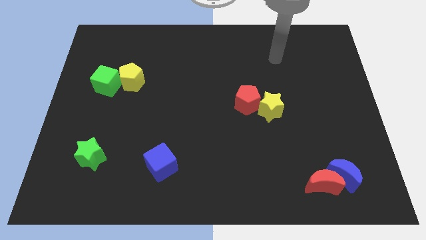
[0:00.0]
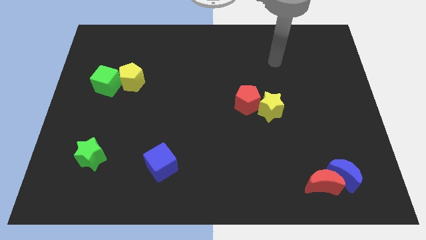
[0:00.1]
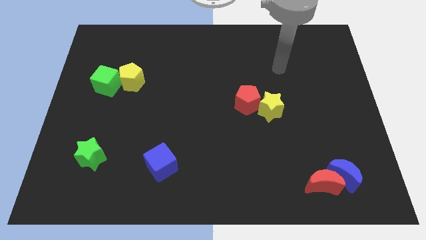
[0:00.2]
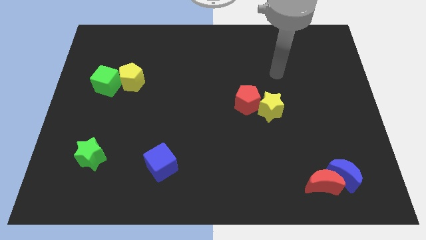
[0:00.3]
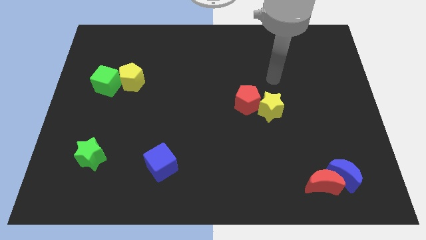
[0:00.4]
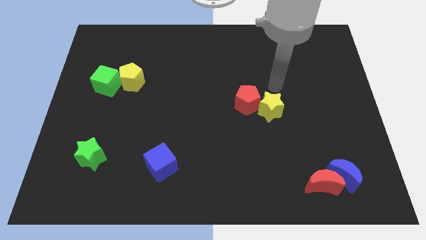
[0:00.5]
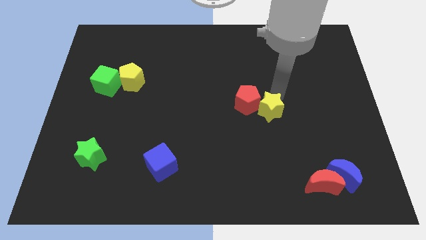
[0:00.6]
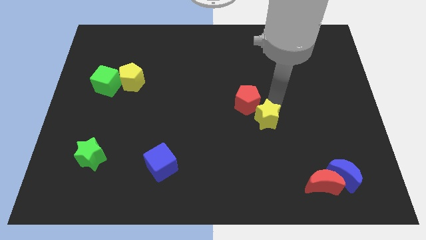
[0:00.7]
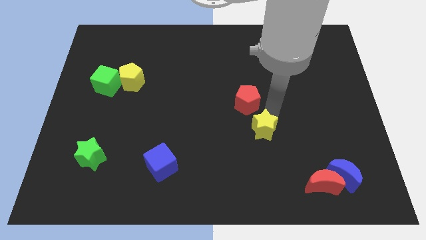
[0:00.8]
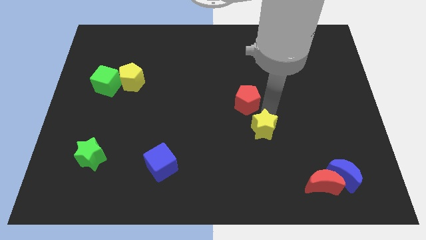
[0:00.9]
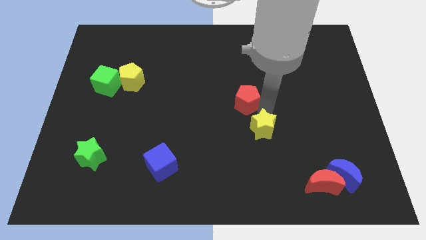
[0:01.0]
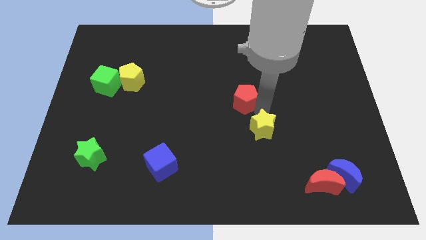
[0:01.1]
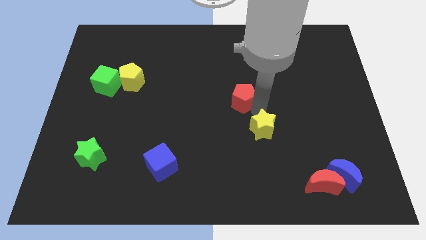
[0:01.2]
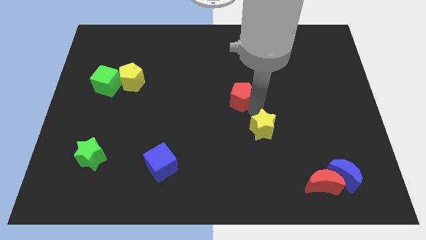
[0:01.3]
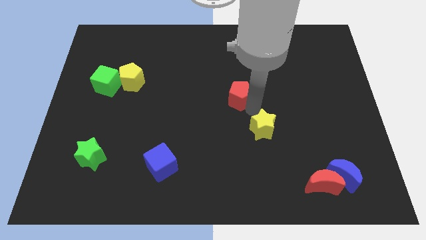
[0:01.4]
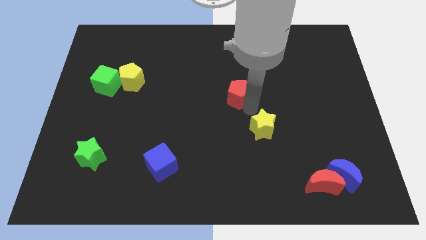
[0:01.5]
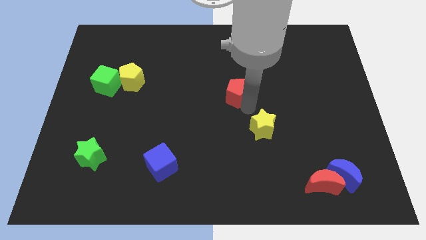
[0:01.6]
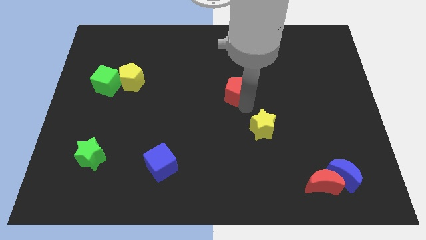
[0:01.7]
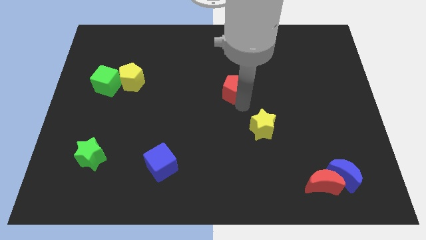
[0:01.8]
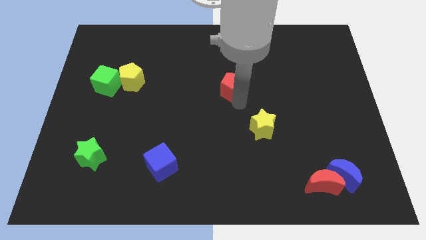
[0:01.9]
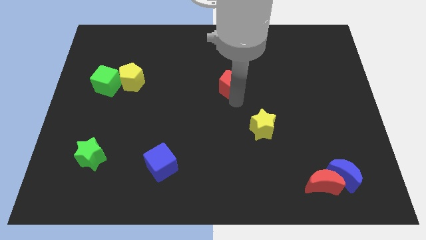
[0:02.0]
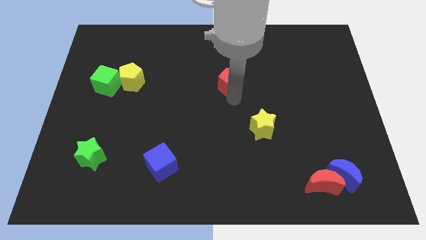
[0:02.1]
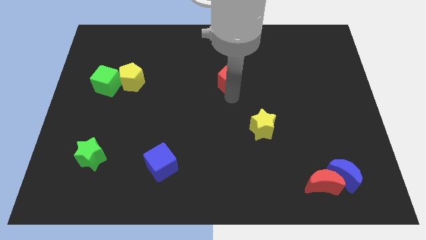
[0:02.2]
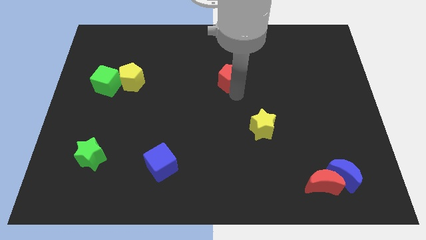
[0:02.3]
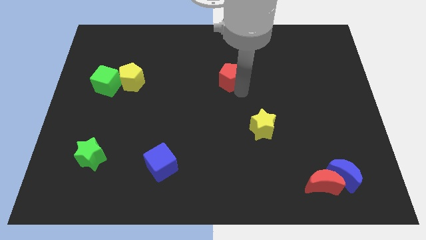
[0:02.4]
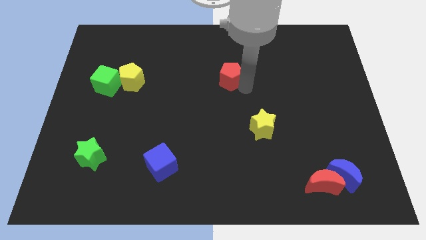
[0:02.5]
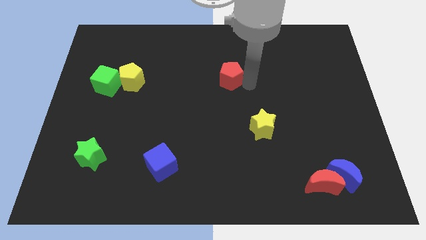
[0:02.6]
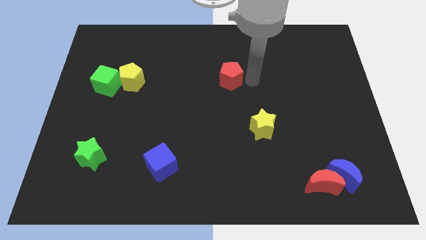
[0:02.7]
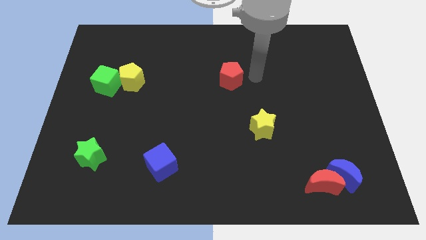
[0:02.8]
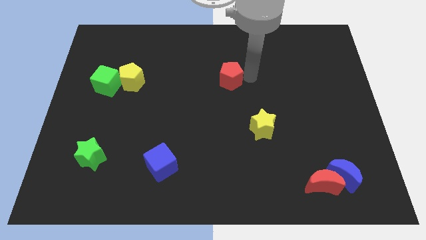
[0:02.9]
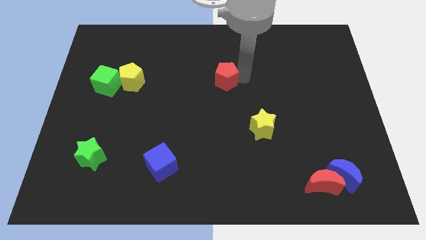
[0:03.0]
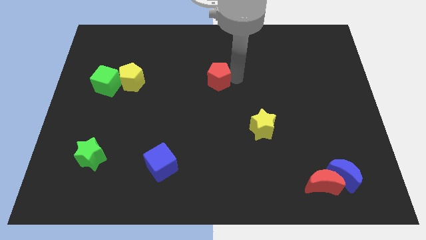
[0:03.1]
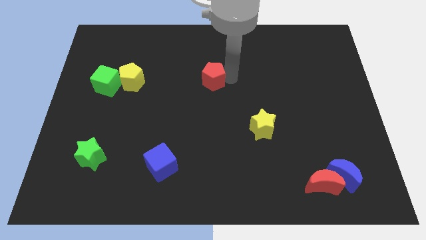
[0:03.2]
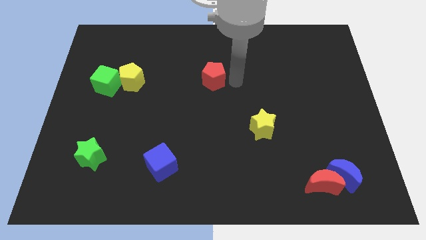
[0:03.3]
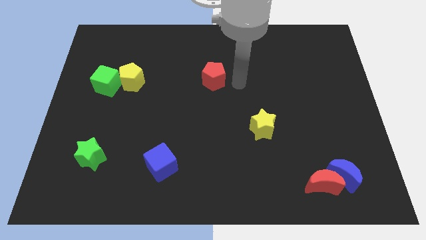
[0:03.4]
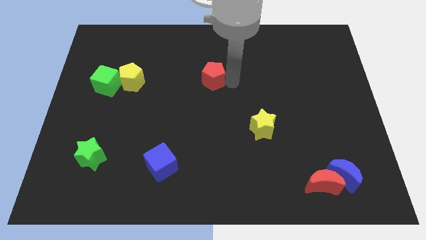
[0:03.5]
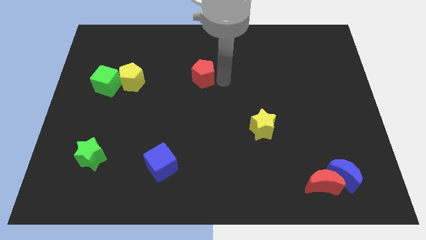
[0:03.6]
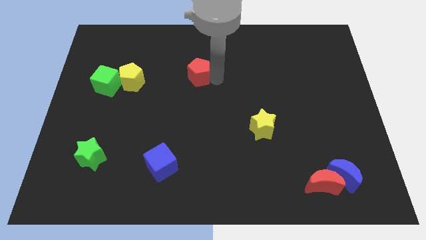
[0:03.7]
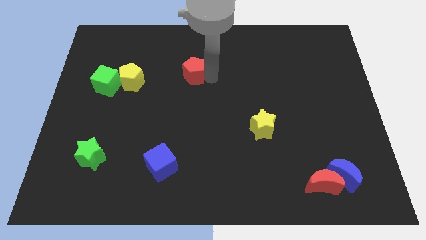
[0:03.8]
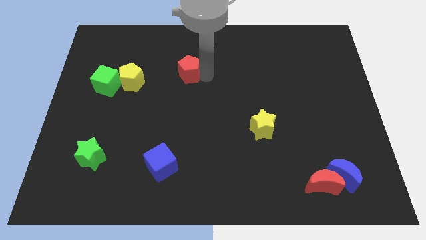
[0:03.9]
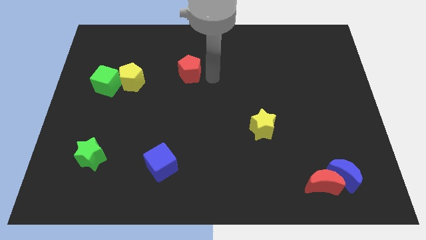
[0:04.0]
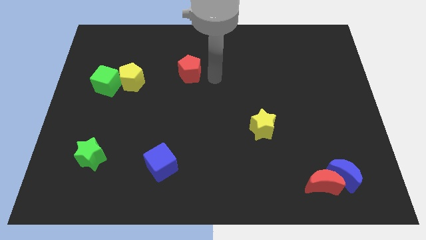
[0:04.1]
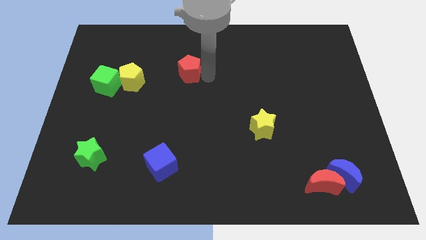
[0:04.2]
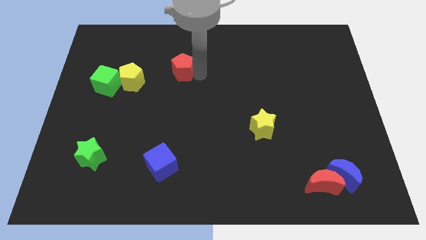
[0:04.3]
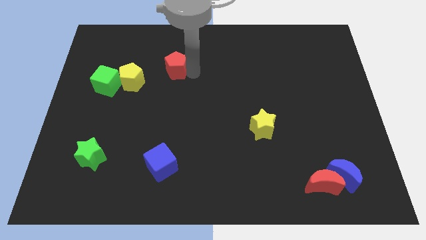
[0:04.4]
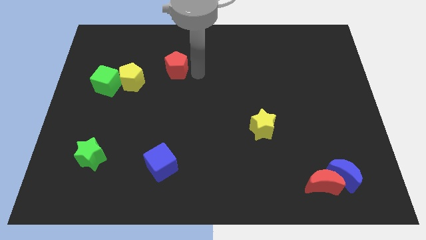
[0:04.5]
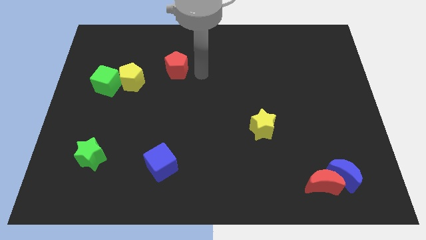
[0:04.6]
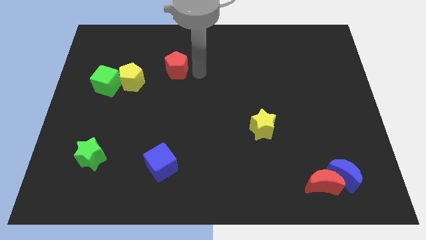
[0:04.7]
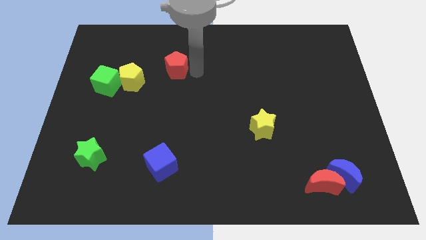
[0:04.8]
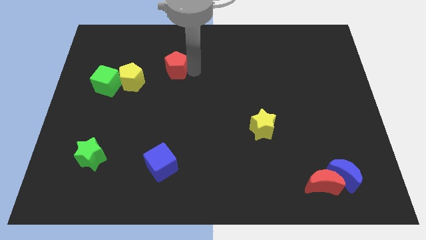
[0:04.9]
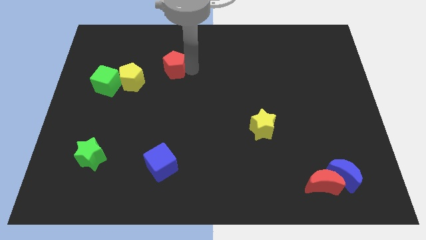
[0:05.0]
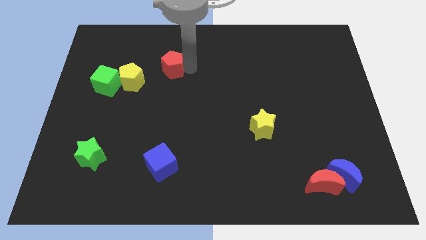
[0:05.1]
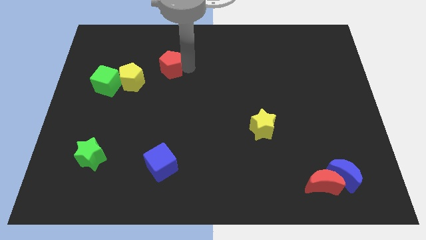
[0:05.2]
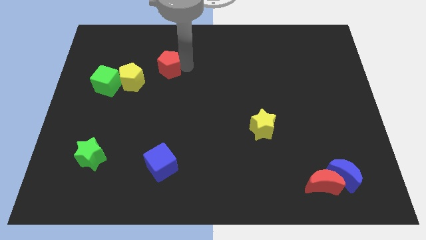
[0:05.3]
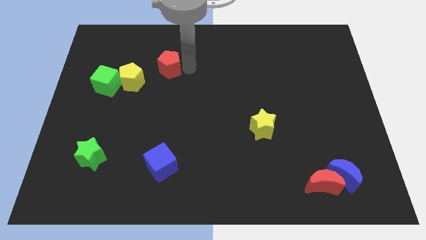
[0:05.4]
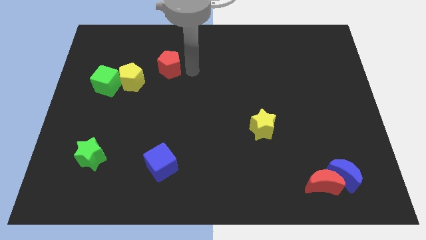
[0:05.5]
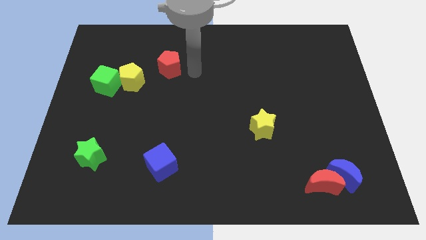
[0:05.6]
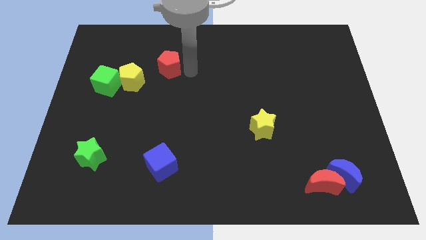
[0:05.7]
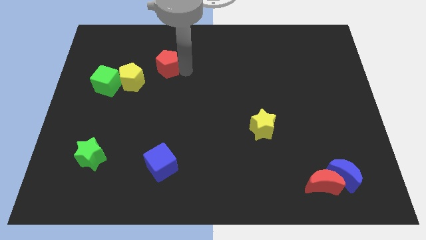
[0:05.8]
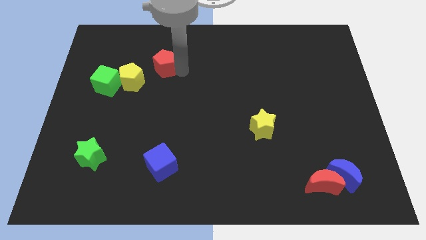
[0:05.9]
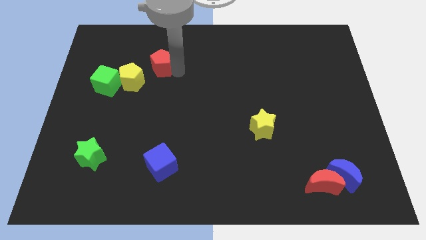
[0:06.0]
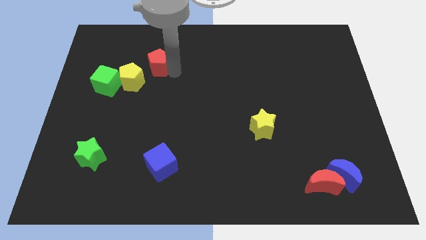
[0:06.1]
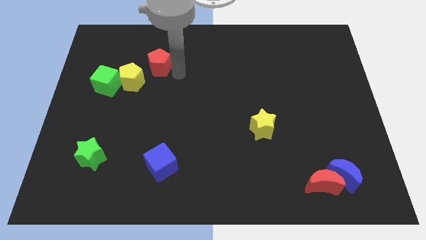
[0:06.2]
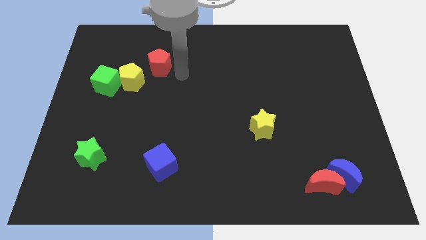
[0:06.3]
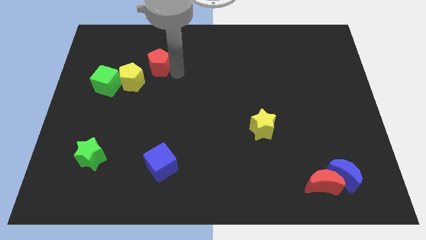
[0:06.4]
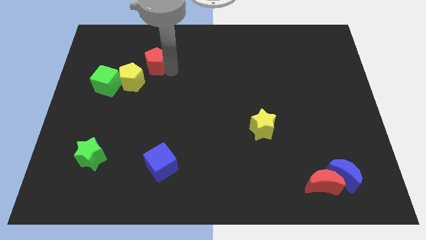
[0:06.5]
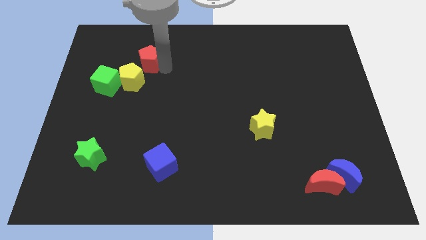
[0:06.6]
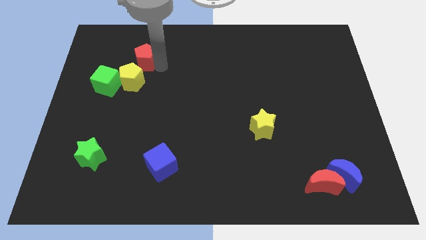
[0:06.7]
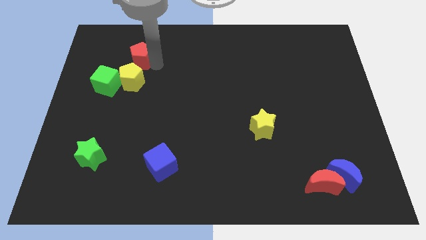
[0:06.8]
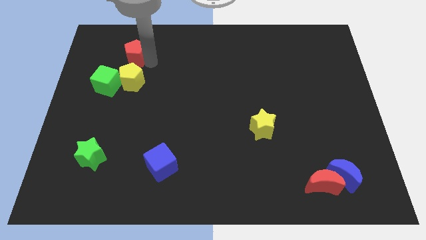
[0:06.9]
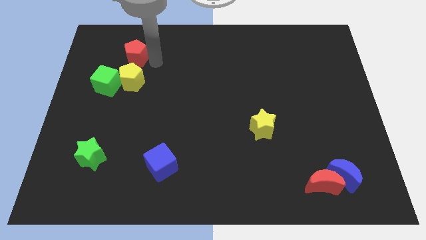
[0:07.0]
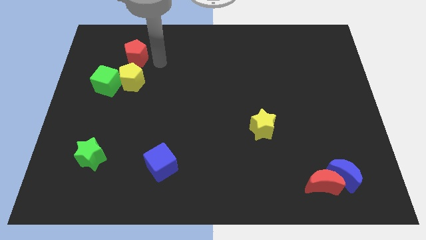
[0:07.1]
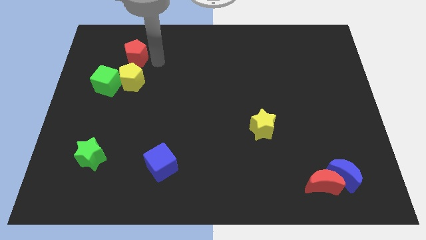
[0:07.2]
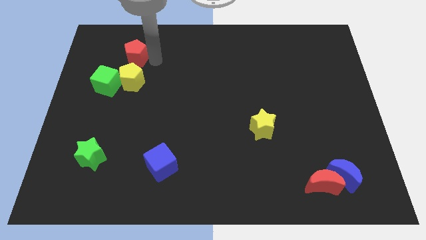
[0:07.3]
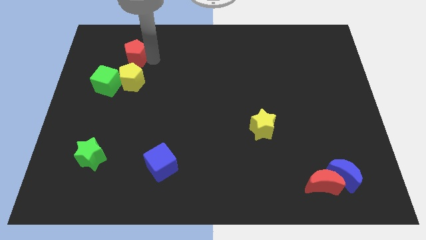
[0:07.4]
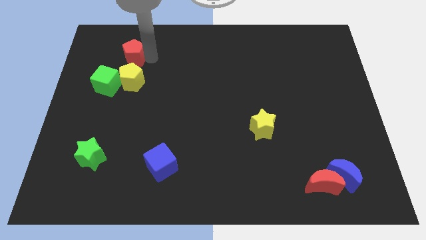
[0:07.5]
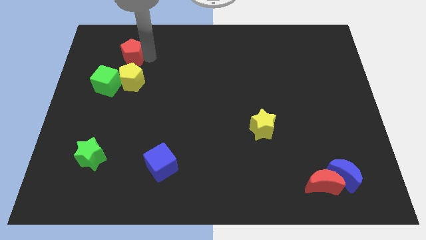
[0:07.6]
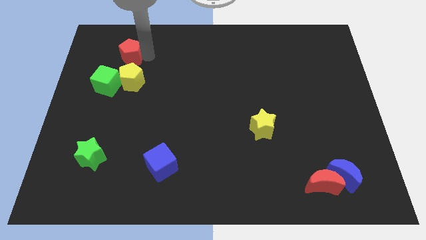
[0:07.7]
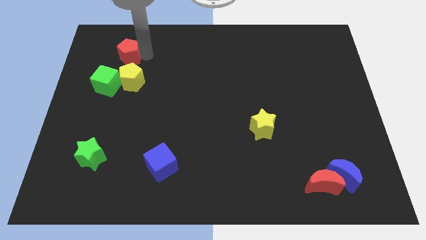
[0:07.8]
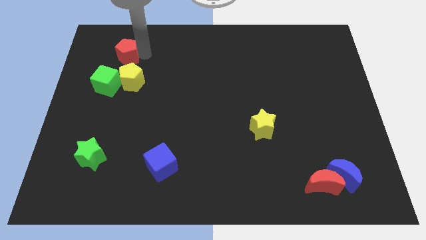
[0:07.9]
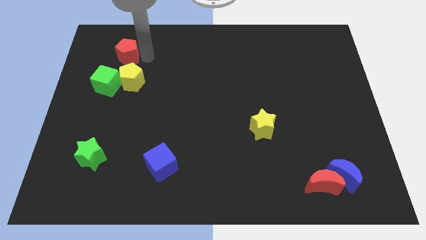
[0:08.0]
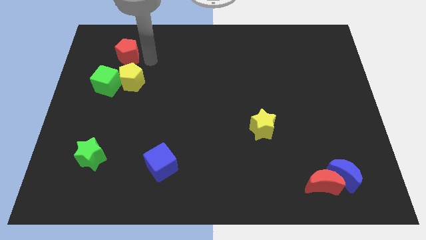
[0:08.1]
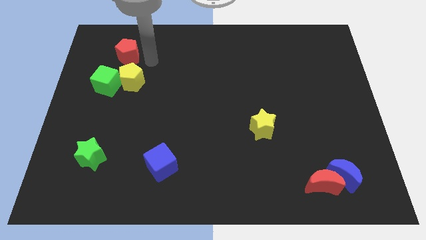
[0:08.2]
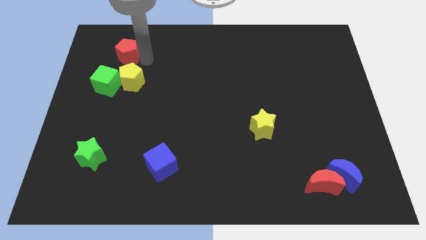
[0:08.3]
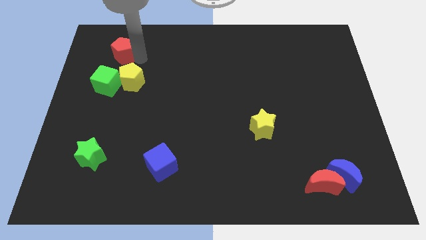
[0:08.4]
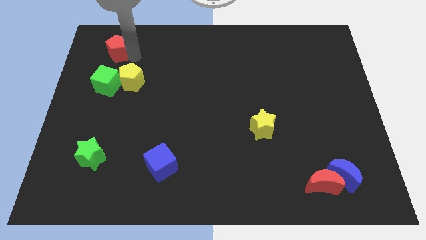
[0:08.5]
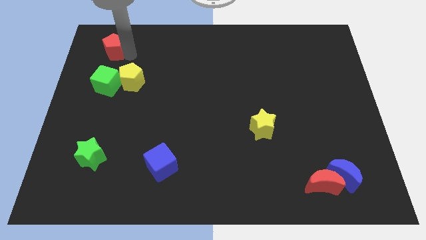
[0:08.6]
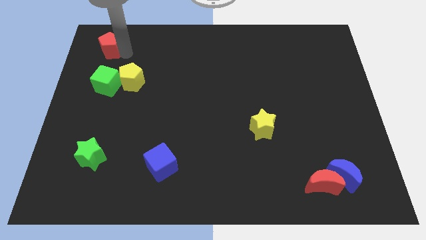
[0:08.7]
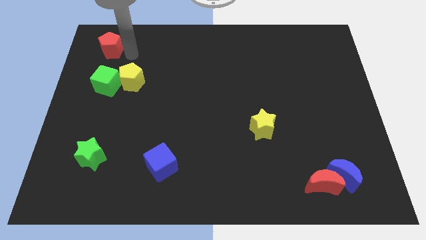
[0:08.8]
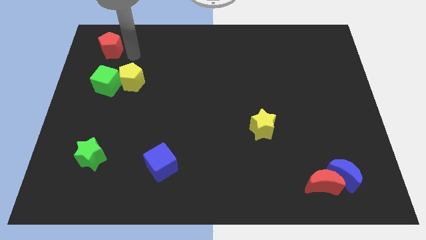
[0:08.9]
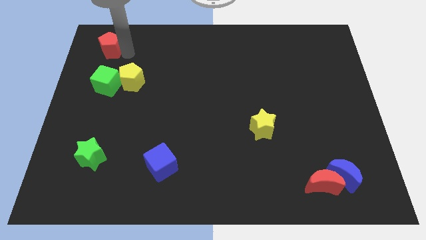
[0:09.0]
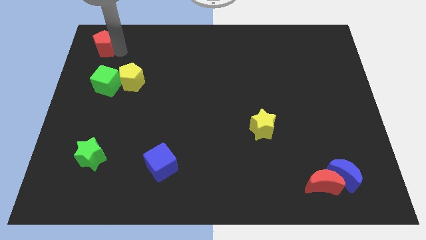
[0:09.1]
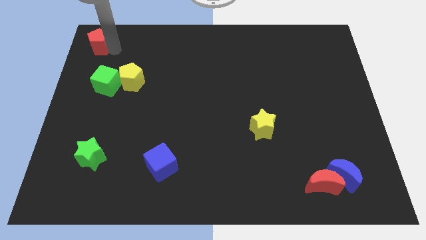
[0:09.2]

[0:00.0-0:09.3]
push the red pentagon to the top left of the board
